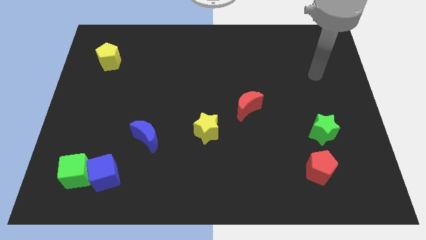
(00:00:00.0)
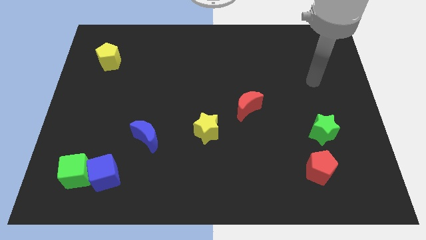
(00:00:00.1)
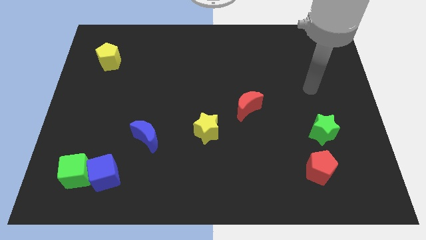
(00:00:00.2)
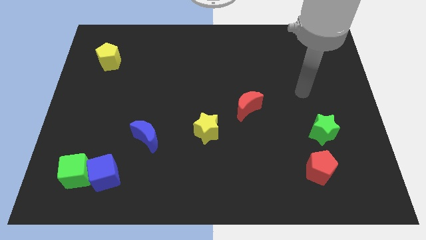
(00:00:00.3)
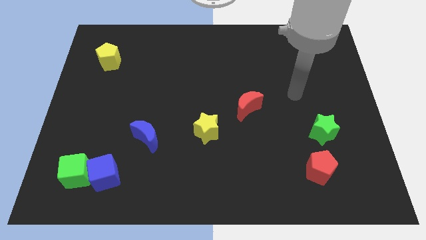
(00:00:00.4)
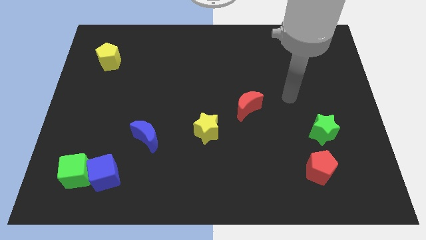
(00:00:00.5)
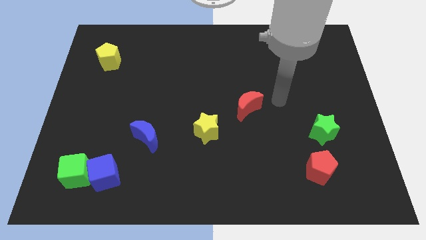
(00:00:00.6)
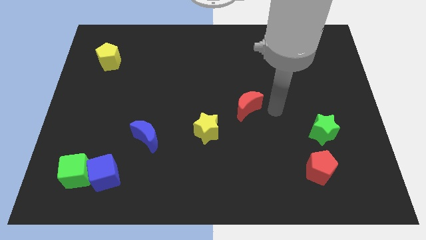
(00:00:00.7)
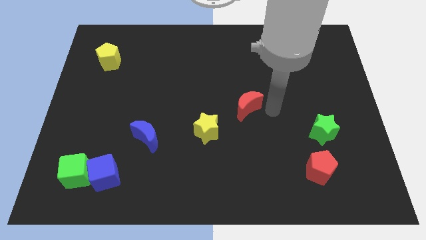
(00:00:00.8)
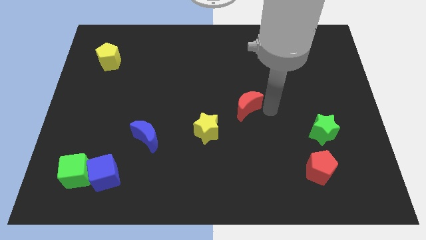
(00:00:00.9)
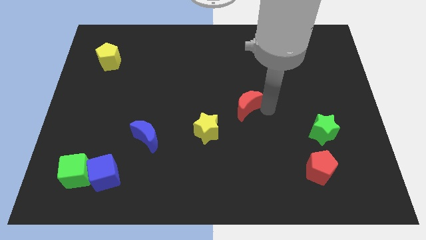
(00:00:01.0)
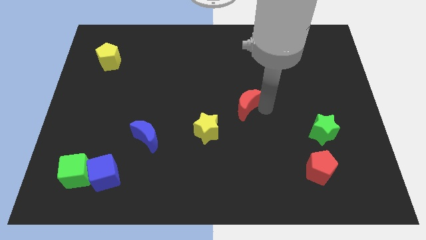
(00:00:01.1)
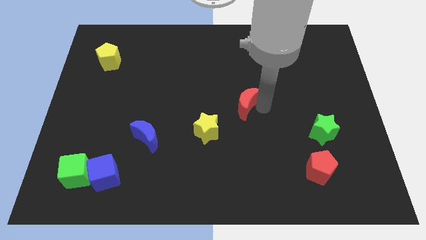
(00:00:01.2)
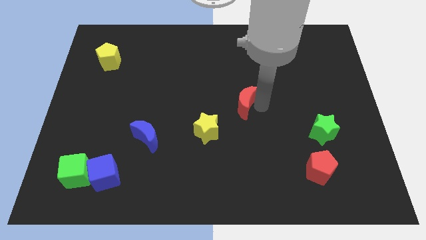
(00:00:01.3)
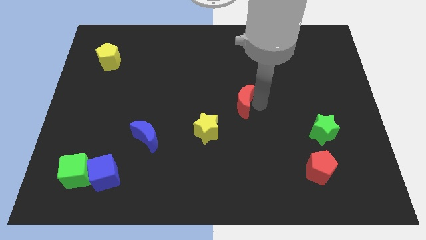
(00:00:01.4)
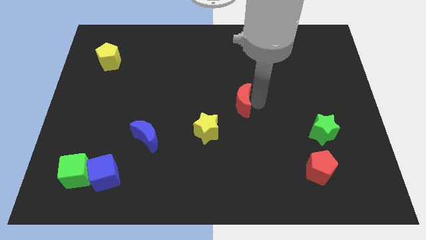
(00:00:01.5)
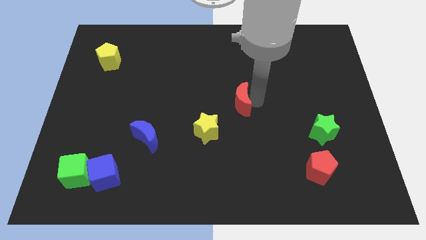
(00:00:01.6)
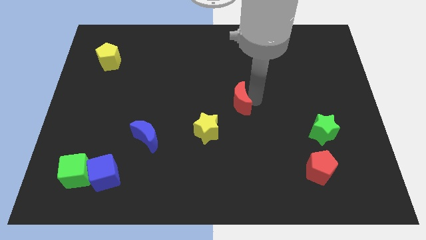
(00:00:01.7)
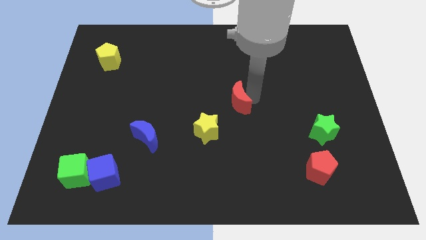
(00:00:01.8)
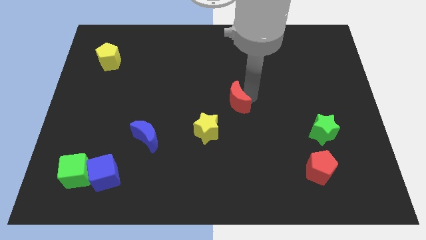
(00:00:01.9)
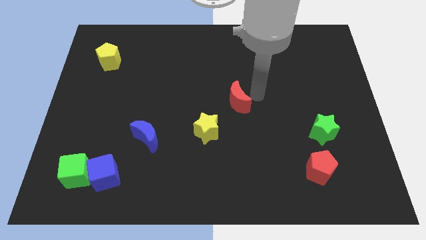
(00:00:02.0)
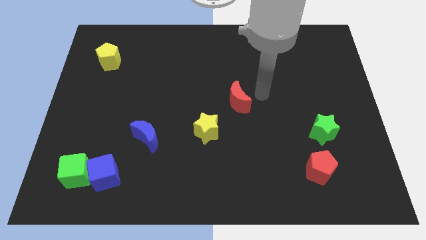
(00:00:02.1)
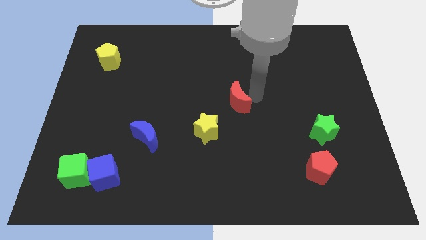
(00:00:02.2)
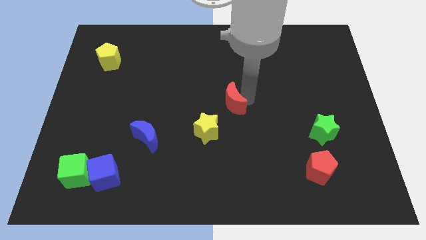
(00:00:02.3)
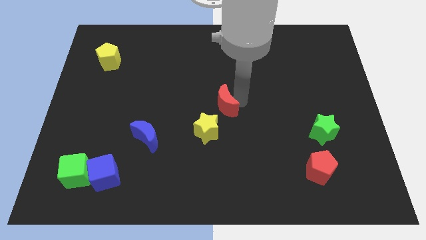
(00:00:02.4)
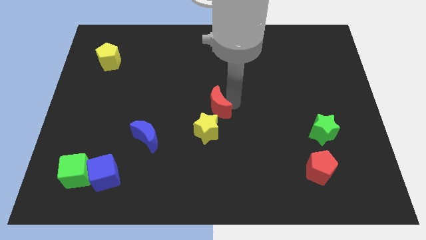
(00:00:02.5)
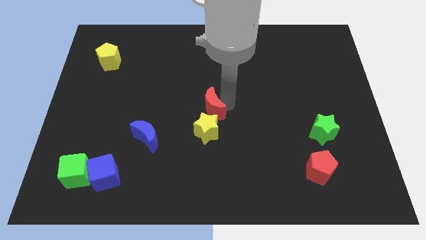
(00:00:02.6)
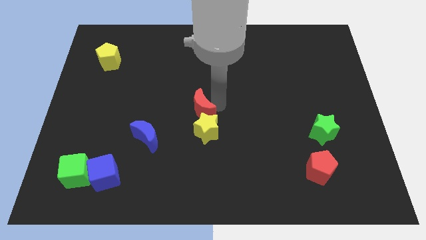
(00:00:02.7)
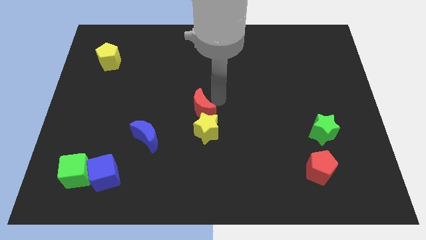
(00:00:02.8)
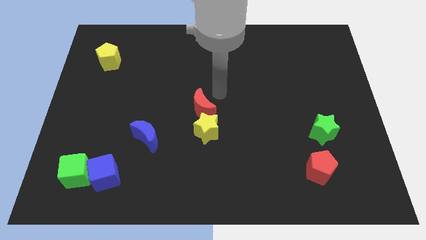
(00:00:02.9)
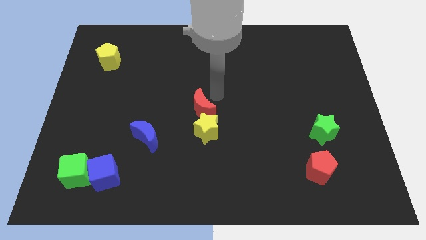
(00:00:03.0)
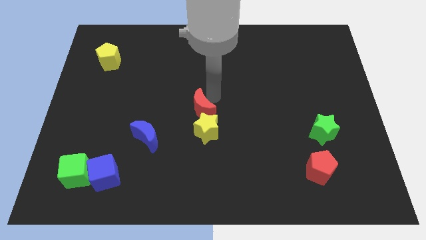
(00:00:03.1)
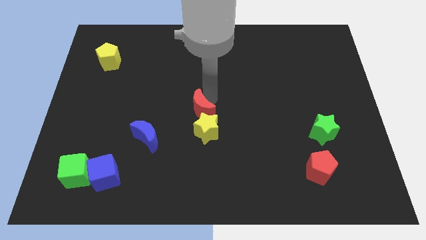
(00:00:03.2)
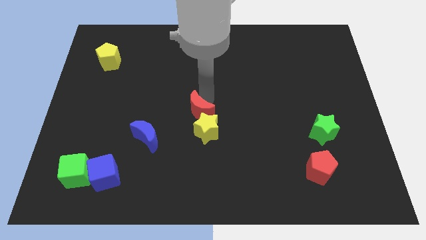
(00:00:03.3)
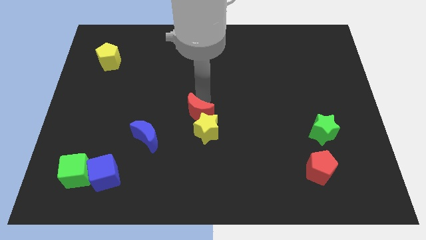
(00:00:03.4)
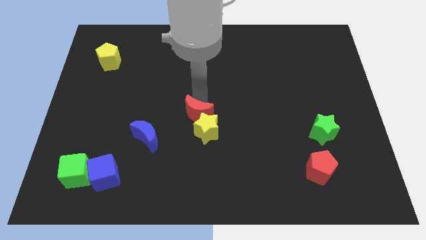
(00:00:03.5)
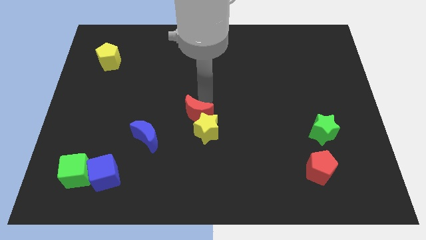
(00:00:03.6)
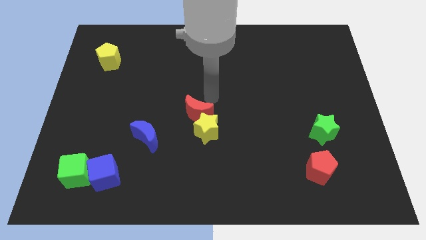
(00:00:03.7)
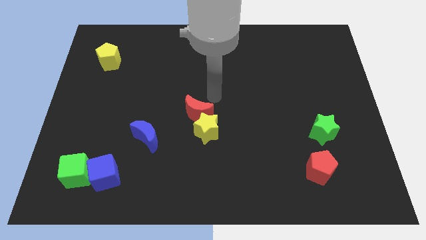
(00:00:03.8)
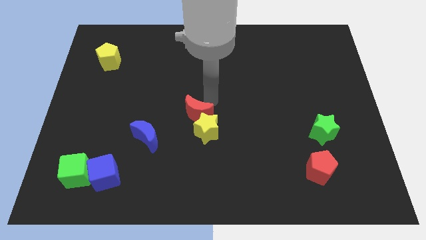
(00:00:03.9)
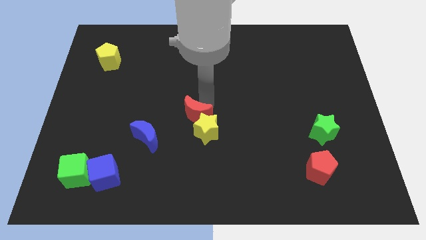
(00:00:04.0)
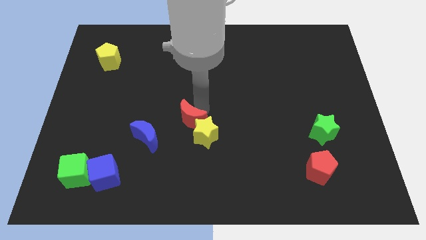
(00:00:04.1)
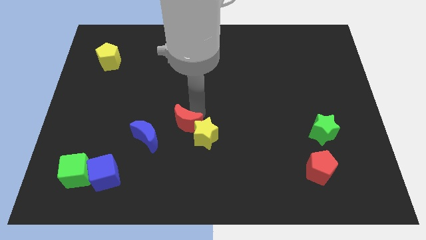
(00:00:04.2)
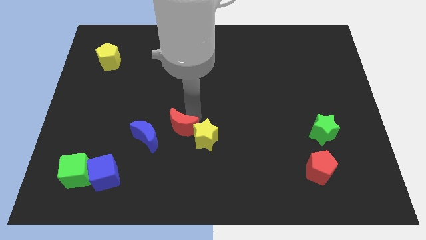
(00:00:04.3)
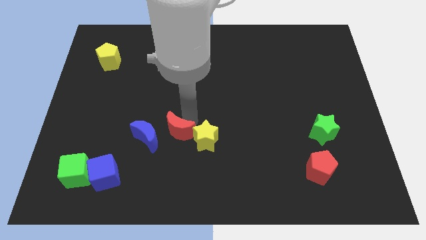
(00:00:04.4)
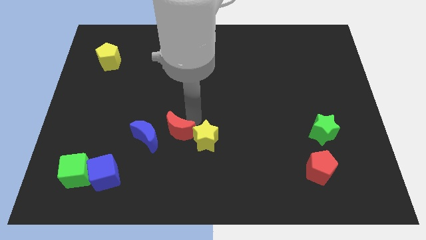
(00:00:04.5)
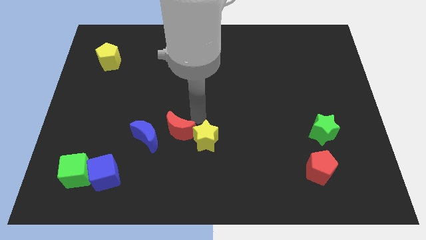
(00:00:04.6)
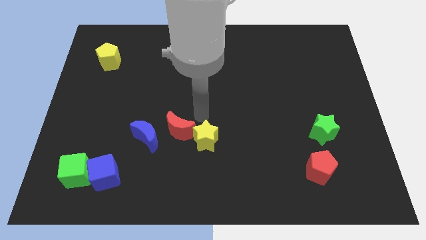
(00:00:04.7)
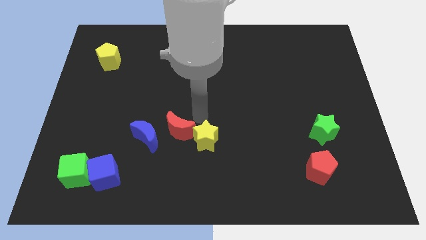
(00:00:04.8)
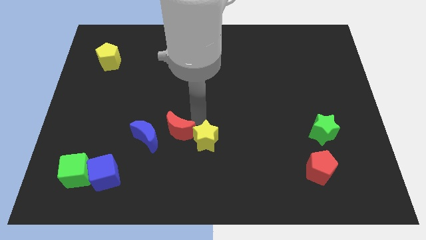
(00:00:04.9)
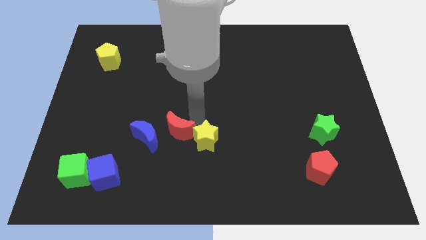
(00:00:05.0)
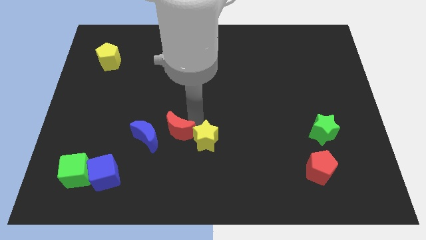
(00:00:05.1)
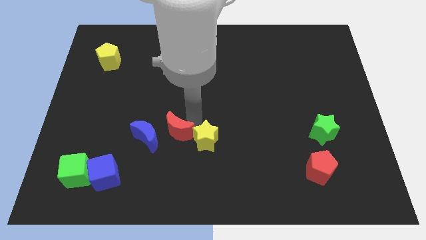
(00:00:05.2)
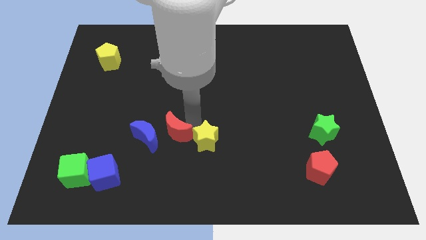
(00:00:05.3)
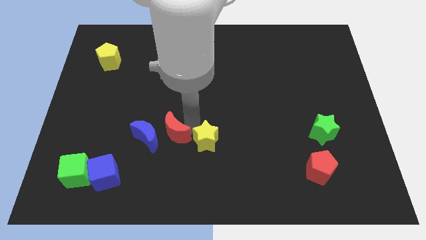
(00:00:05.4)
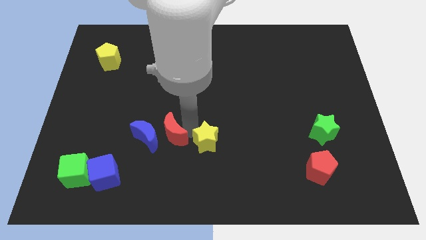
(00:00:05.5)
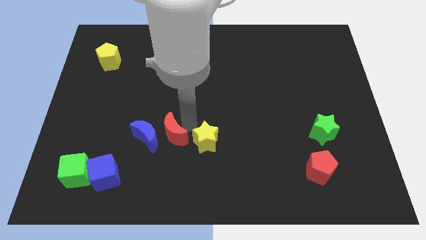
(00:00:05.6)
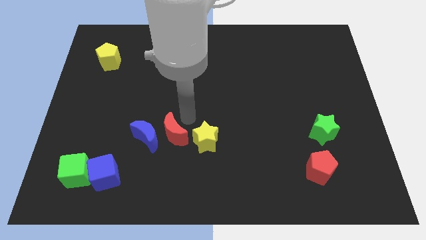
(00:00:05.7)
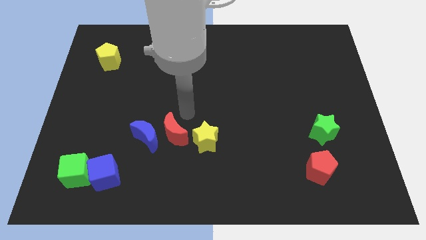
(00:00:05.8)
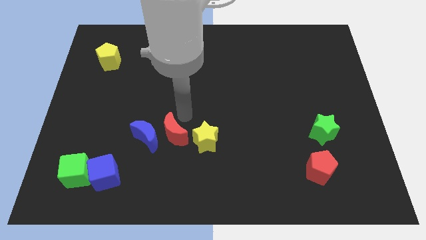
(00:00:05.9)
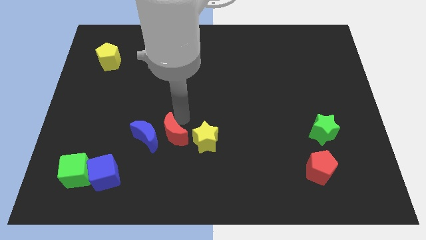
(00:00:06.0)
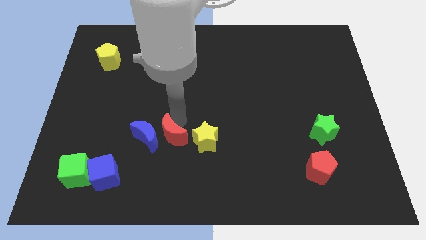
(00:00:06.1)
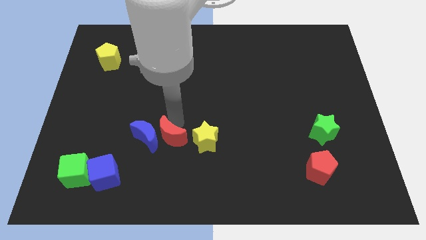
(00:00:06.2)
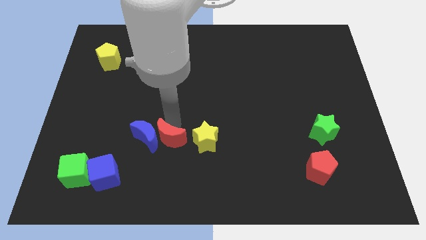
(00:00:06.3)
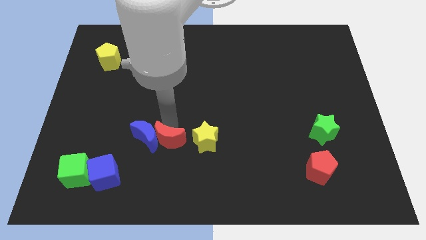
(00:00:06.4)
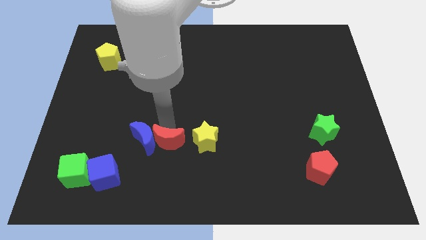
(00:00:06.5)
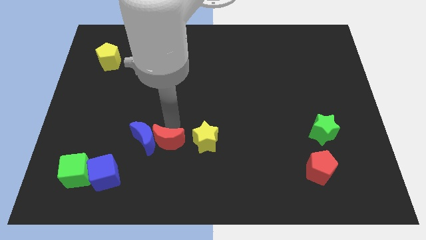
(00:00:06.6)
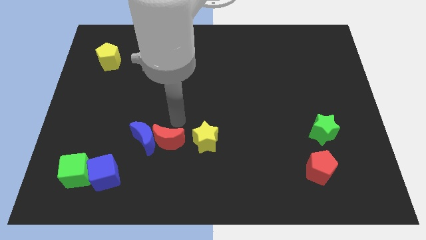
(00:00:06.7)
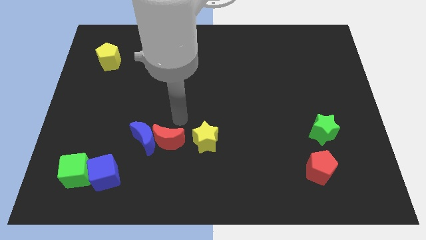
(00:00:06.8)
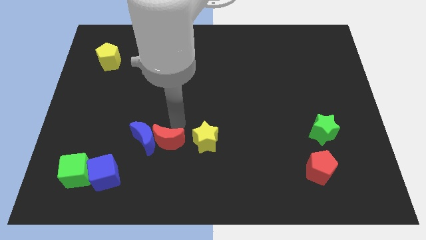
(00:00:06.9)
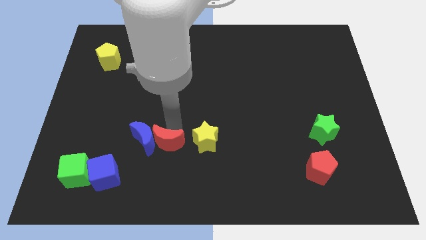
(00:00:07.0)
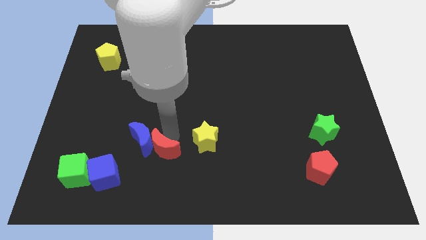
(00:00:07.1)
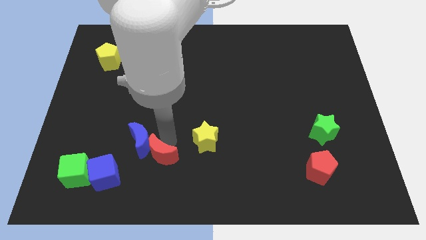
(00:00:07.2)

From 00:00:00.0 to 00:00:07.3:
push the red moon to the bottom of the blue moon
